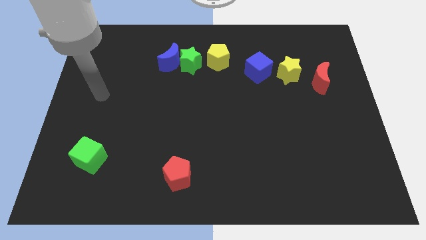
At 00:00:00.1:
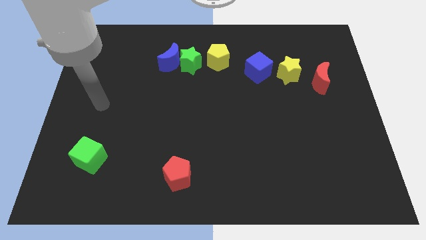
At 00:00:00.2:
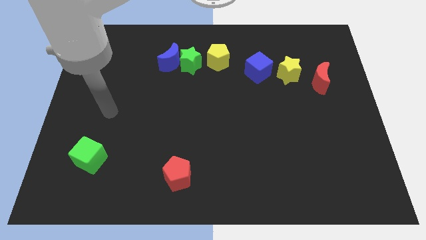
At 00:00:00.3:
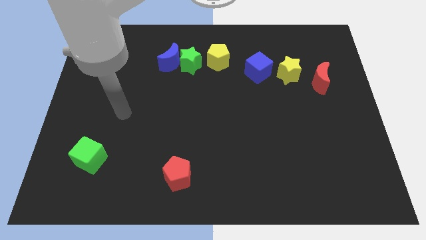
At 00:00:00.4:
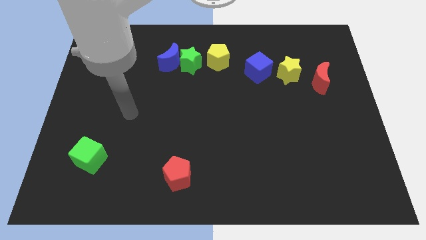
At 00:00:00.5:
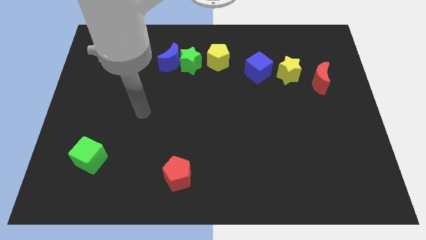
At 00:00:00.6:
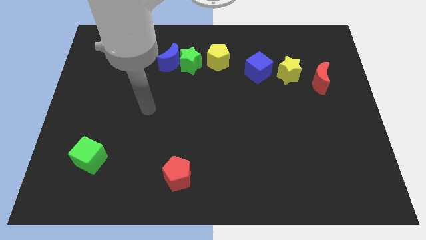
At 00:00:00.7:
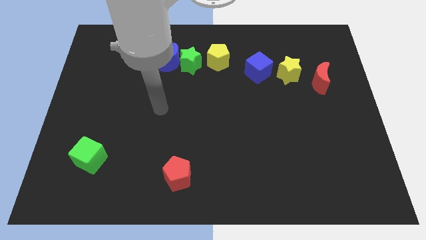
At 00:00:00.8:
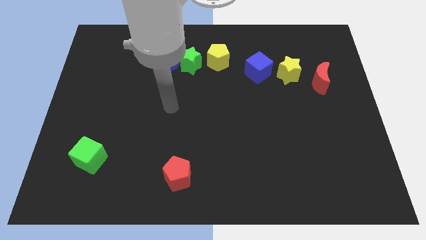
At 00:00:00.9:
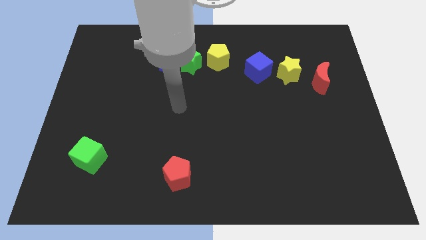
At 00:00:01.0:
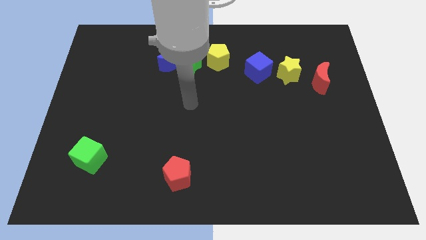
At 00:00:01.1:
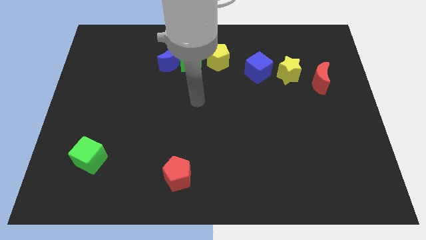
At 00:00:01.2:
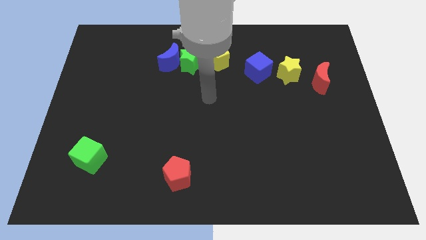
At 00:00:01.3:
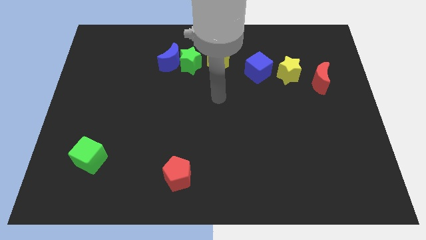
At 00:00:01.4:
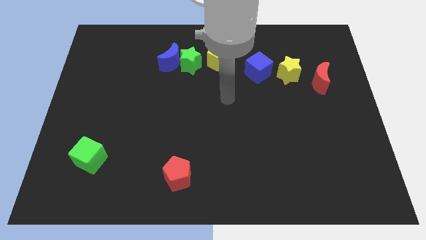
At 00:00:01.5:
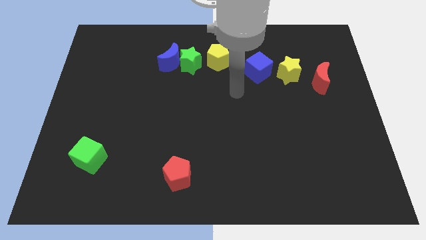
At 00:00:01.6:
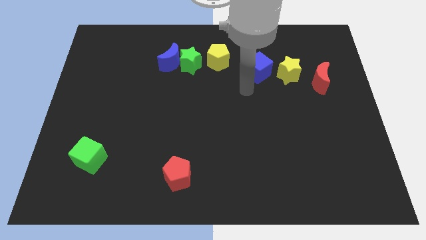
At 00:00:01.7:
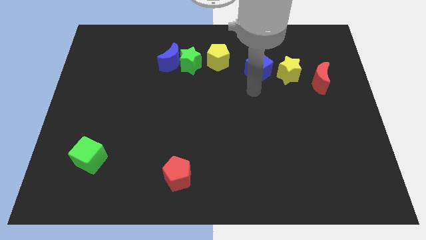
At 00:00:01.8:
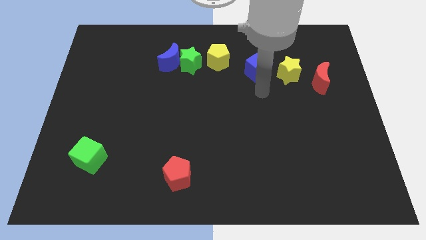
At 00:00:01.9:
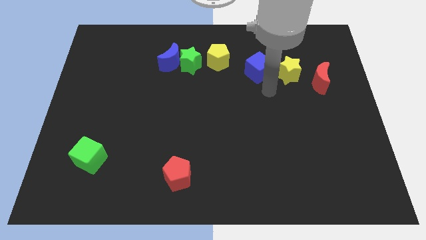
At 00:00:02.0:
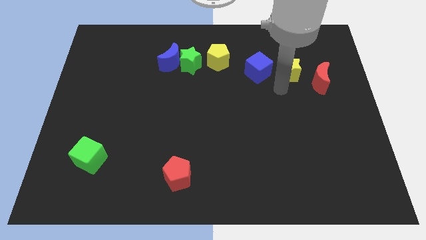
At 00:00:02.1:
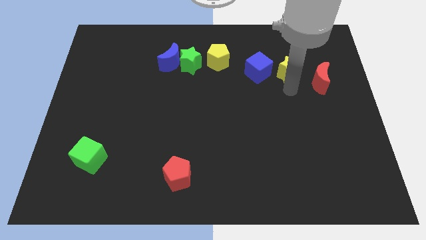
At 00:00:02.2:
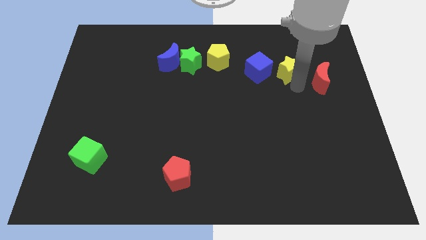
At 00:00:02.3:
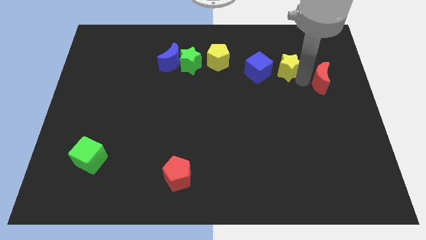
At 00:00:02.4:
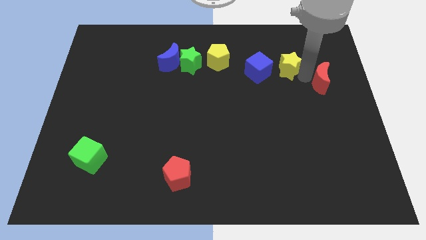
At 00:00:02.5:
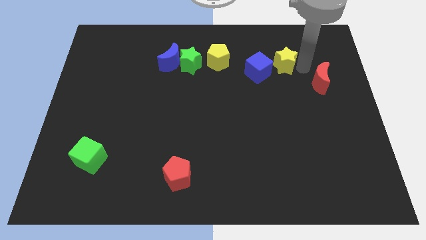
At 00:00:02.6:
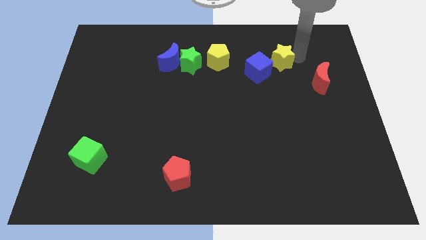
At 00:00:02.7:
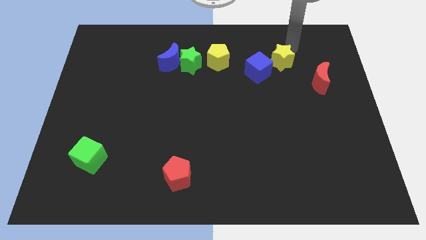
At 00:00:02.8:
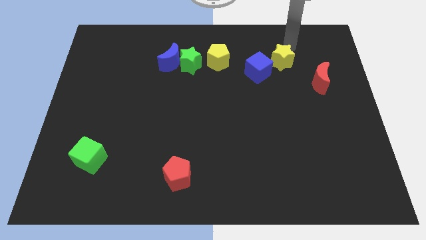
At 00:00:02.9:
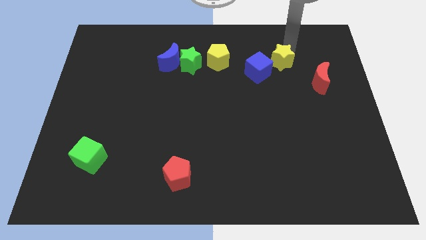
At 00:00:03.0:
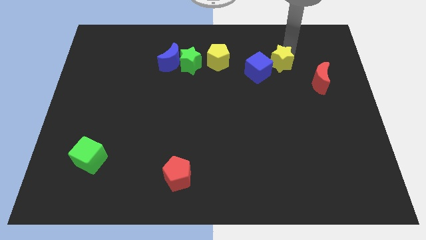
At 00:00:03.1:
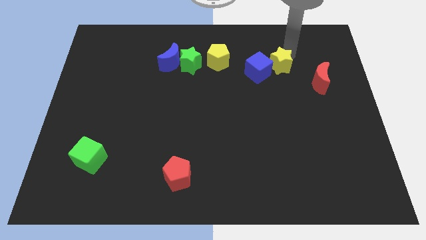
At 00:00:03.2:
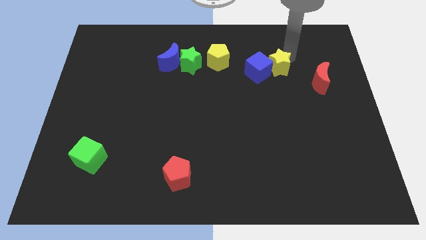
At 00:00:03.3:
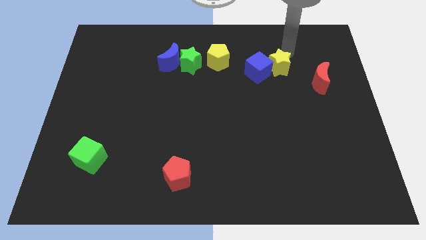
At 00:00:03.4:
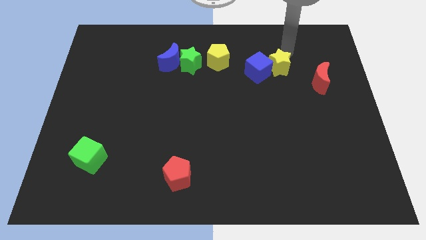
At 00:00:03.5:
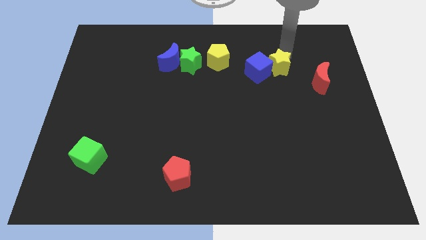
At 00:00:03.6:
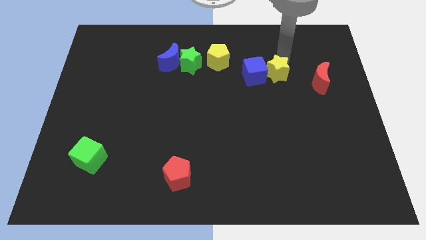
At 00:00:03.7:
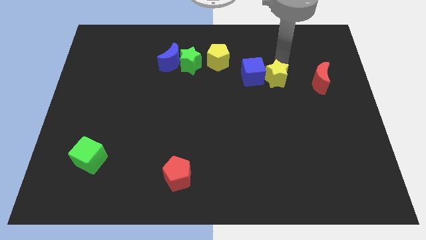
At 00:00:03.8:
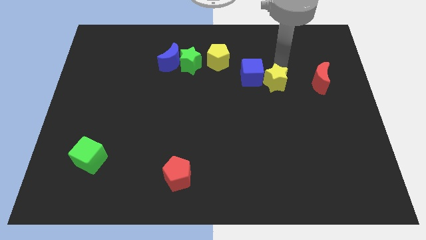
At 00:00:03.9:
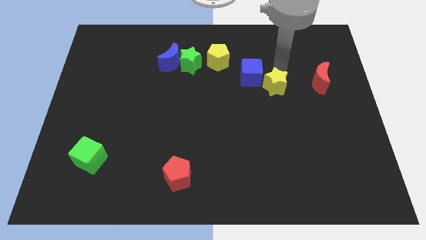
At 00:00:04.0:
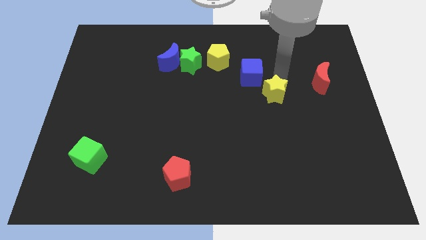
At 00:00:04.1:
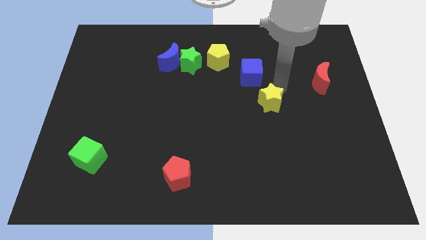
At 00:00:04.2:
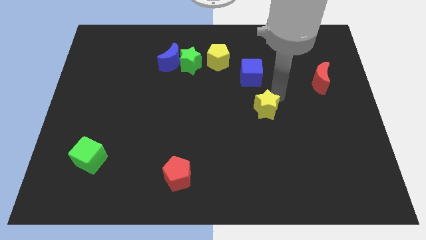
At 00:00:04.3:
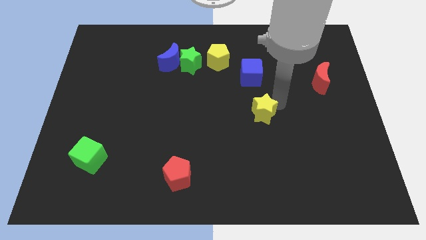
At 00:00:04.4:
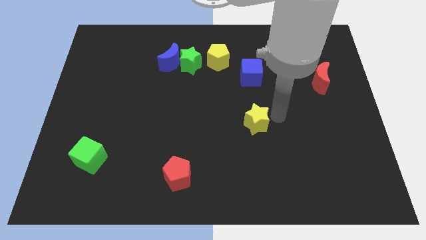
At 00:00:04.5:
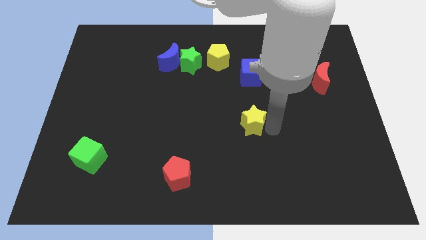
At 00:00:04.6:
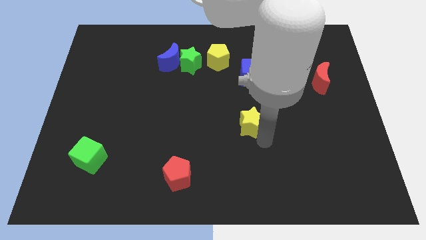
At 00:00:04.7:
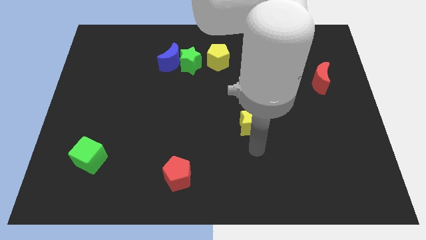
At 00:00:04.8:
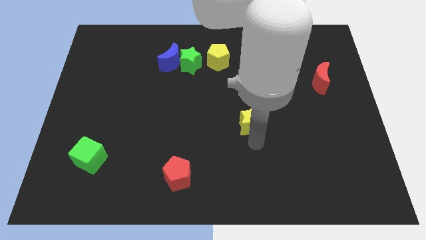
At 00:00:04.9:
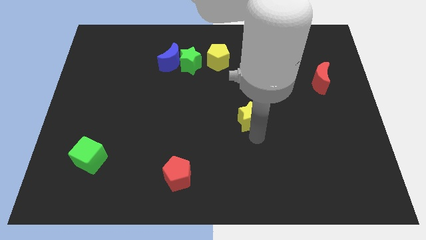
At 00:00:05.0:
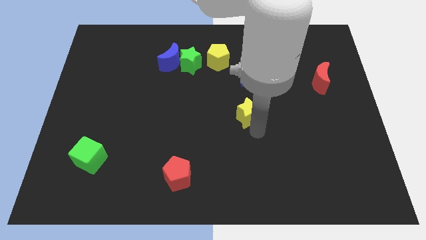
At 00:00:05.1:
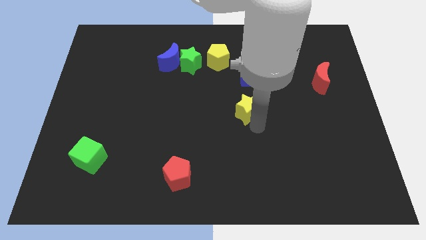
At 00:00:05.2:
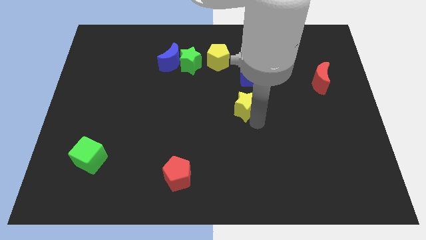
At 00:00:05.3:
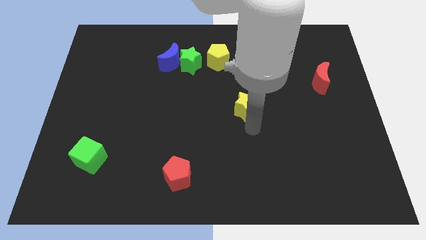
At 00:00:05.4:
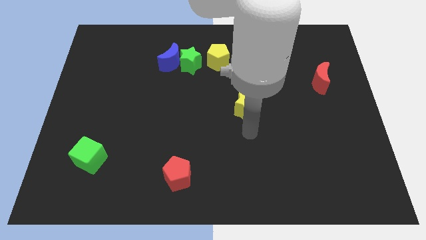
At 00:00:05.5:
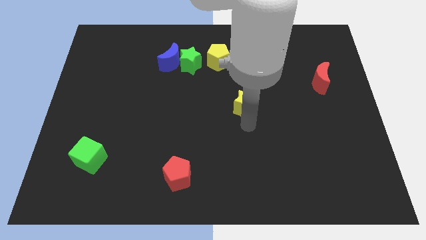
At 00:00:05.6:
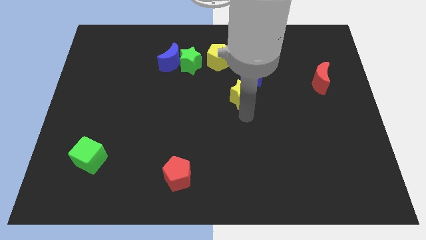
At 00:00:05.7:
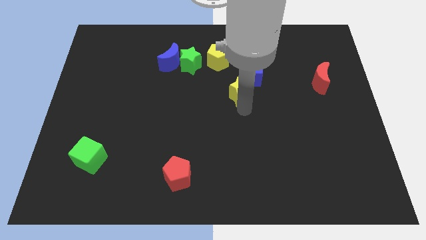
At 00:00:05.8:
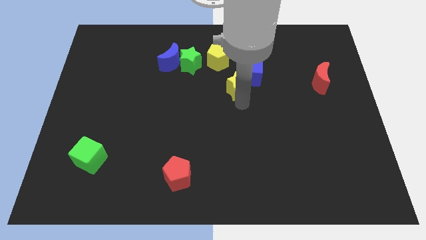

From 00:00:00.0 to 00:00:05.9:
push the yellow star diagonally down and to the right of the yellow pentagon

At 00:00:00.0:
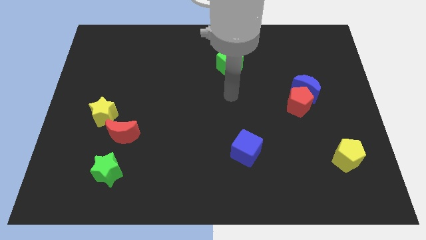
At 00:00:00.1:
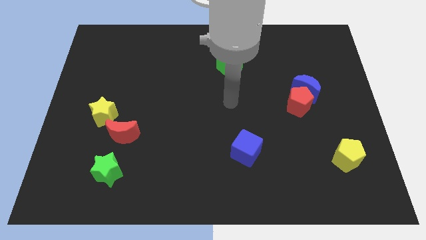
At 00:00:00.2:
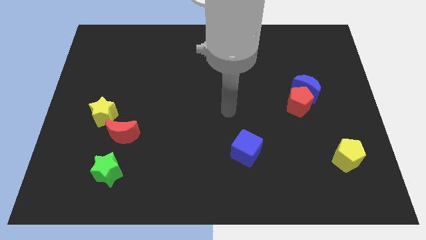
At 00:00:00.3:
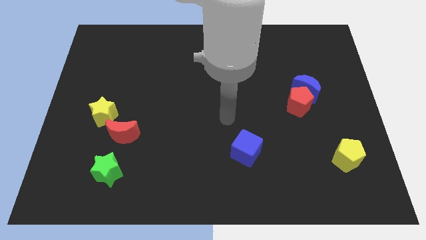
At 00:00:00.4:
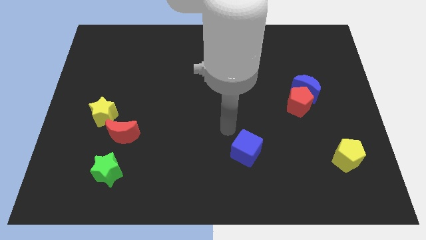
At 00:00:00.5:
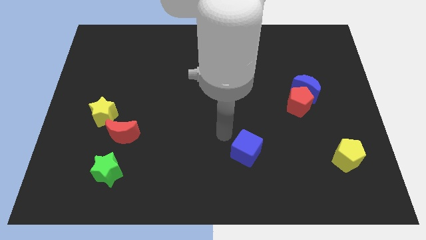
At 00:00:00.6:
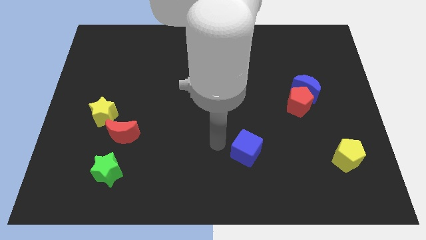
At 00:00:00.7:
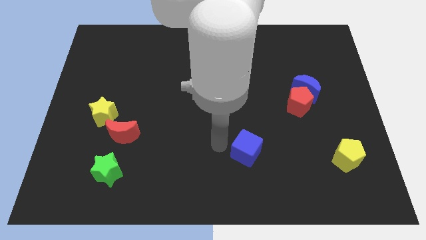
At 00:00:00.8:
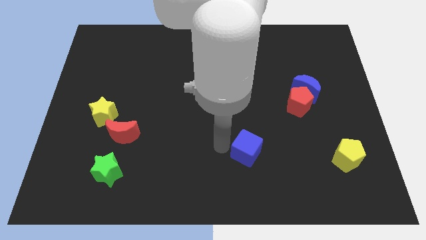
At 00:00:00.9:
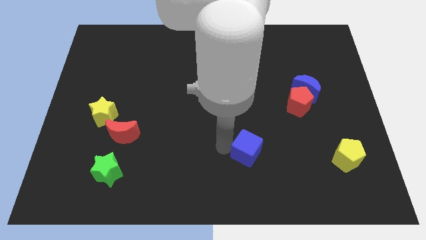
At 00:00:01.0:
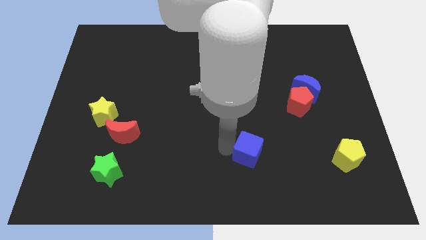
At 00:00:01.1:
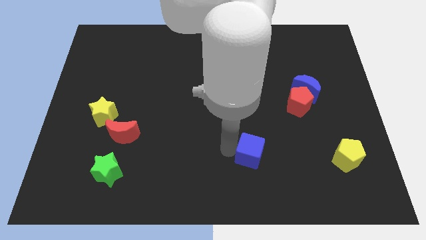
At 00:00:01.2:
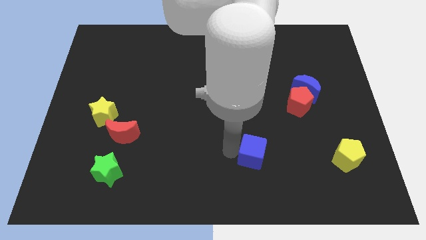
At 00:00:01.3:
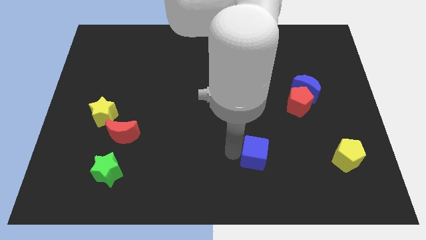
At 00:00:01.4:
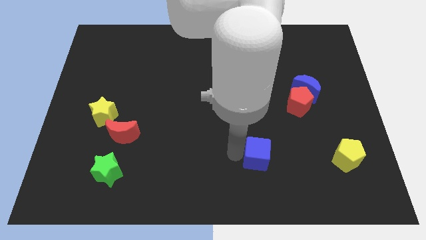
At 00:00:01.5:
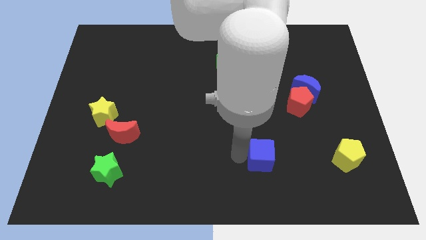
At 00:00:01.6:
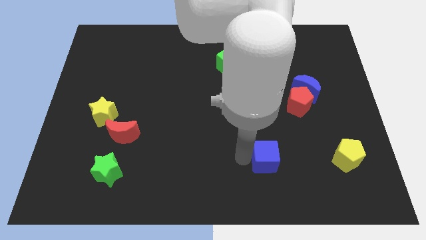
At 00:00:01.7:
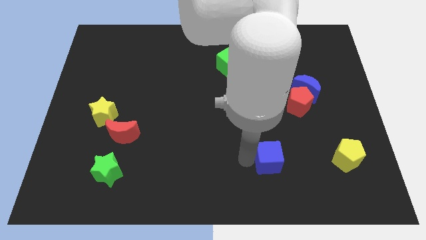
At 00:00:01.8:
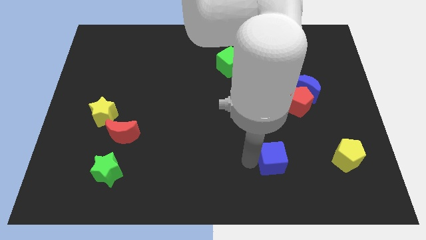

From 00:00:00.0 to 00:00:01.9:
put the blue cube to the left side of the yellow pentagon

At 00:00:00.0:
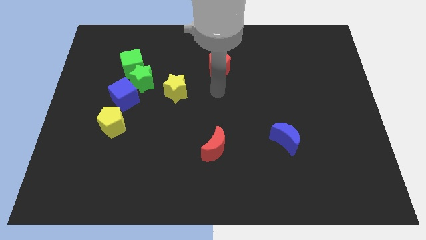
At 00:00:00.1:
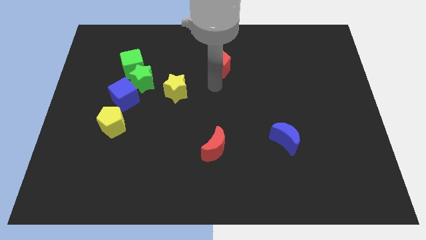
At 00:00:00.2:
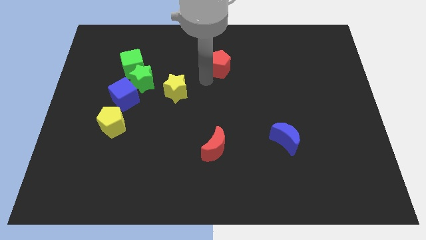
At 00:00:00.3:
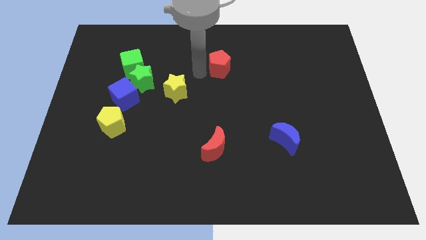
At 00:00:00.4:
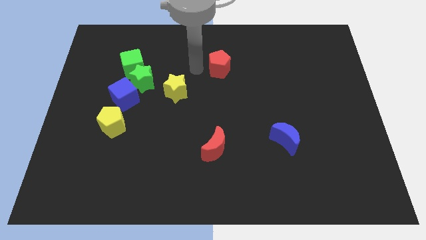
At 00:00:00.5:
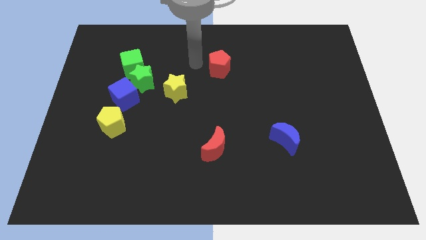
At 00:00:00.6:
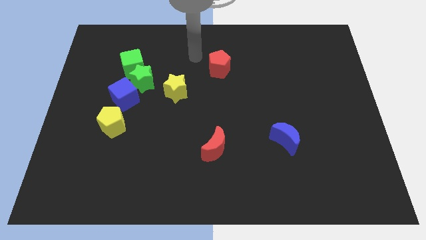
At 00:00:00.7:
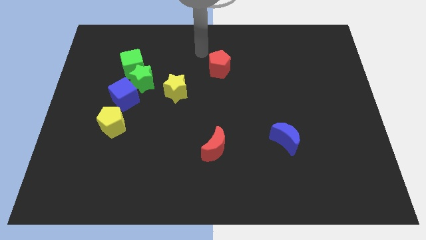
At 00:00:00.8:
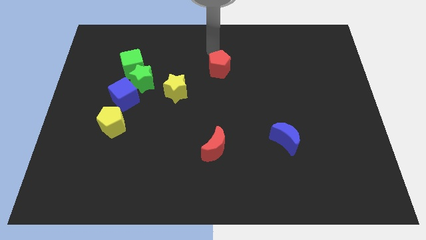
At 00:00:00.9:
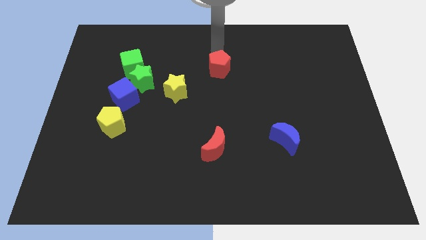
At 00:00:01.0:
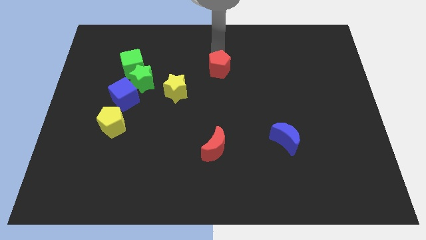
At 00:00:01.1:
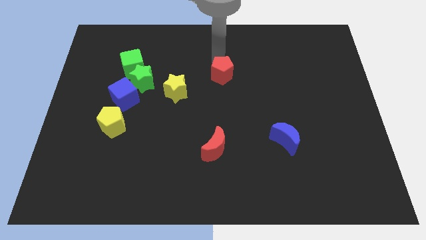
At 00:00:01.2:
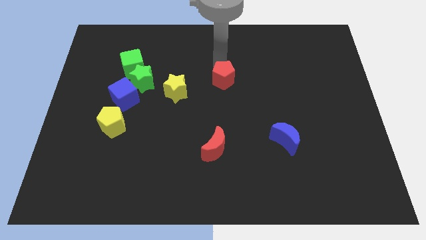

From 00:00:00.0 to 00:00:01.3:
move the red pentagon to the right side of the yellow star
